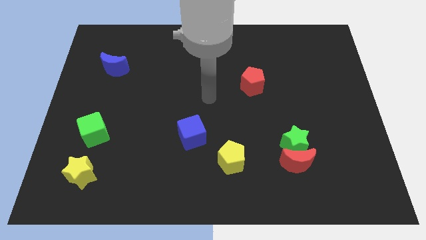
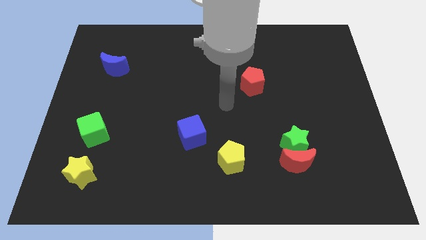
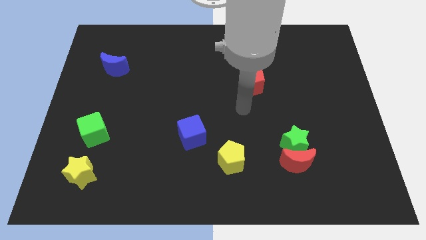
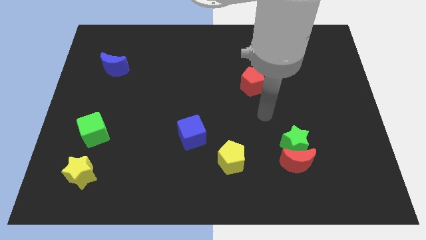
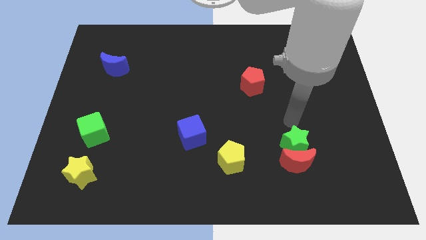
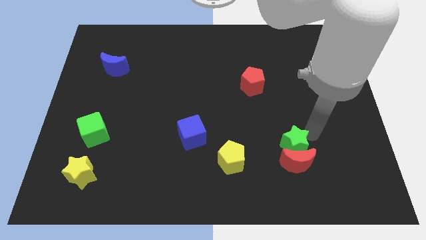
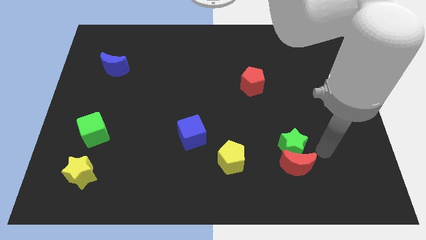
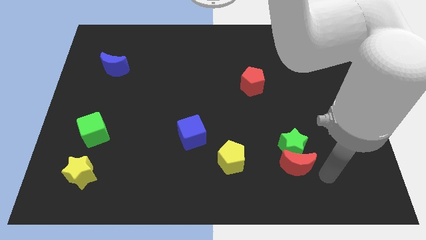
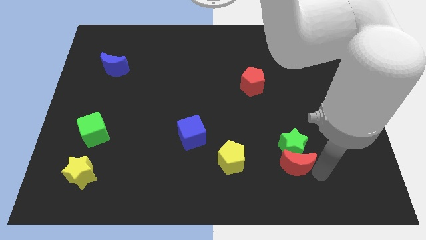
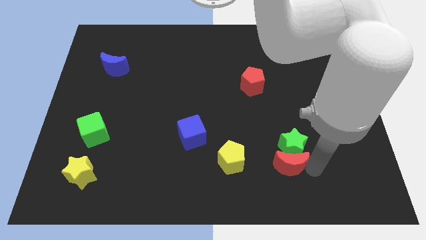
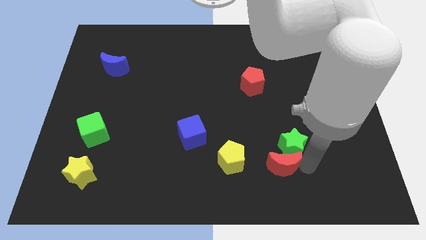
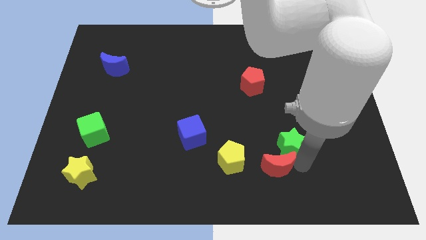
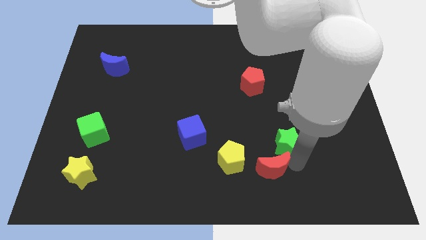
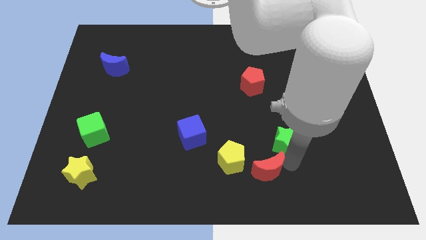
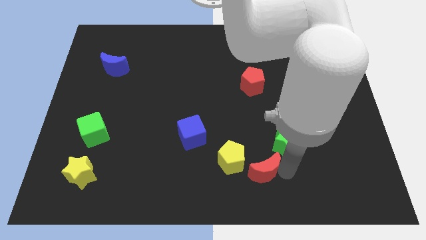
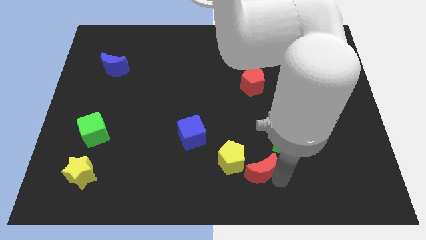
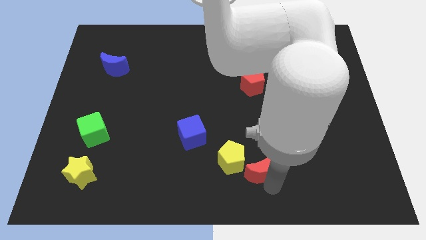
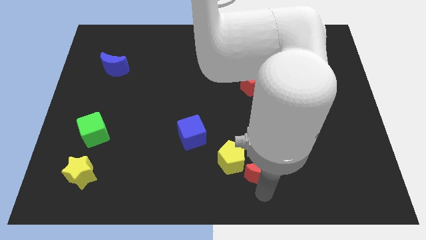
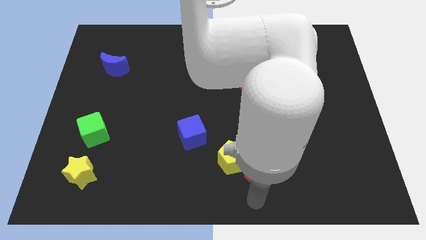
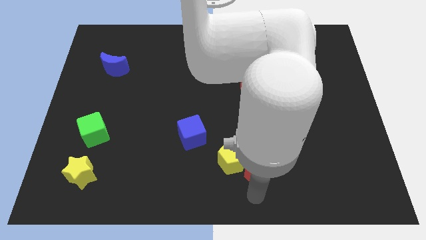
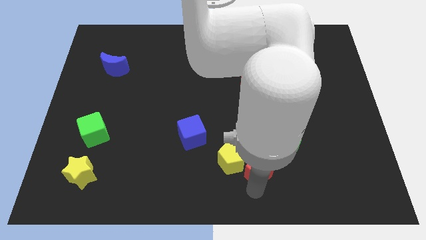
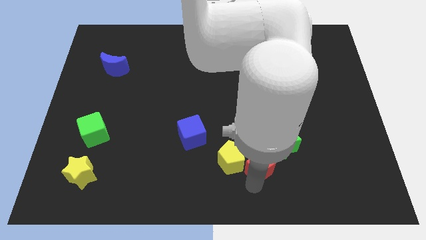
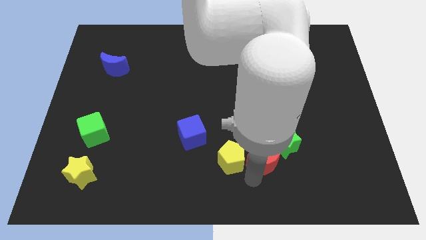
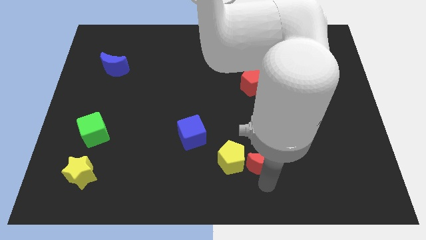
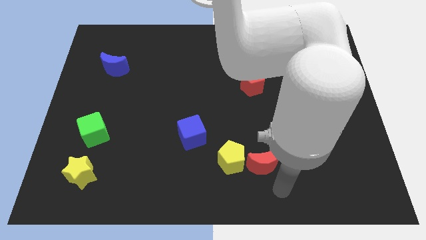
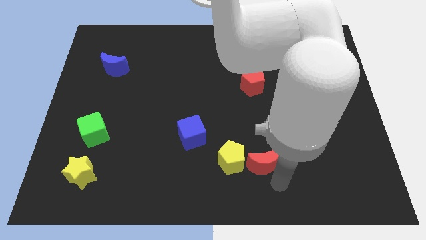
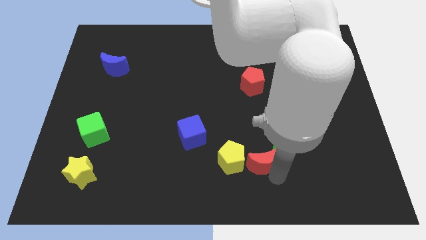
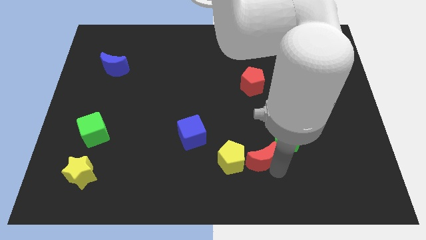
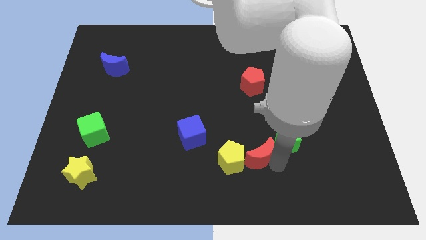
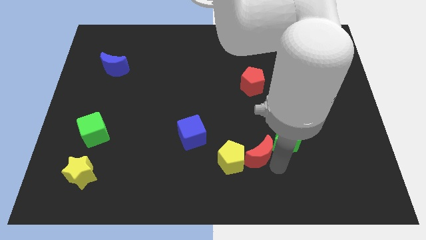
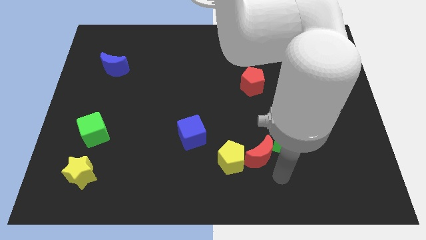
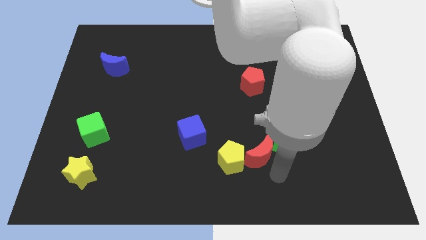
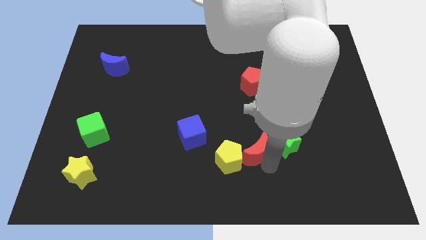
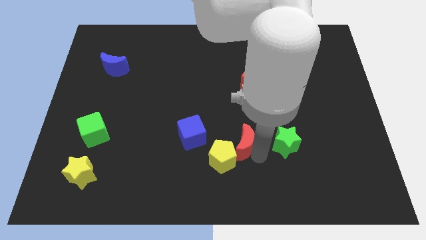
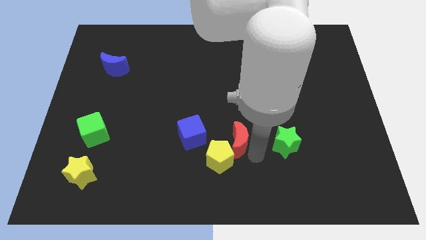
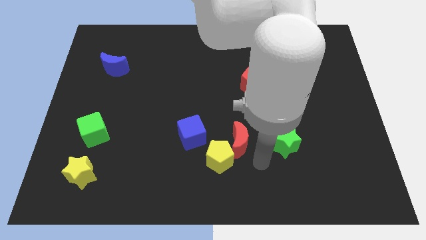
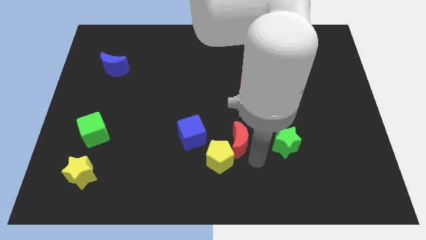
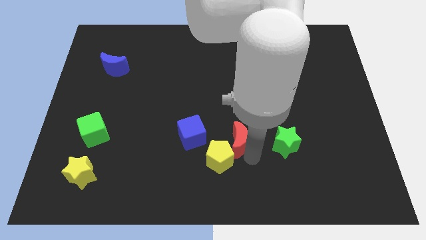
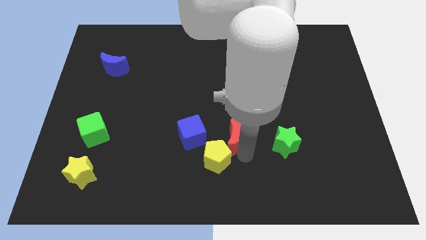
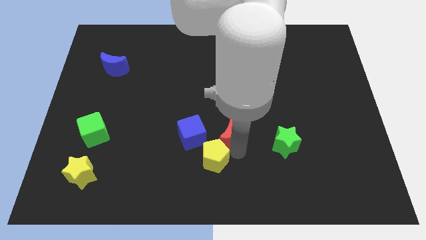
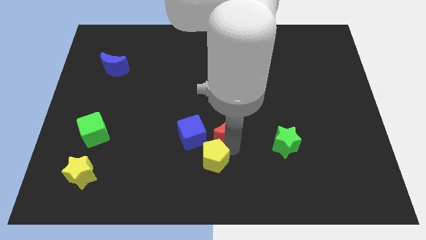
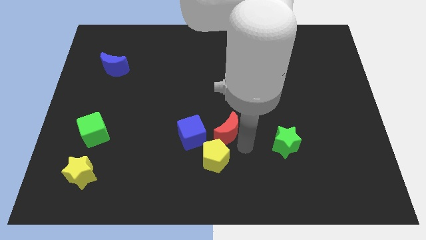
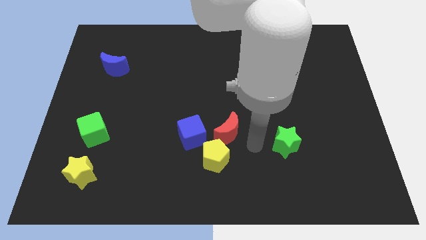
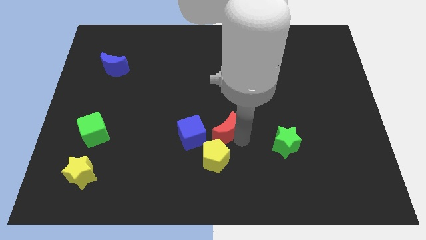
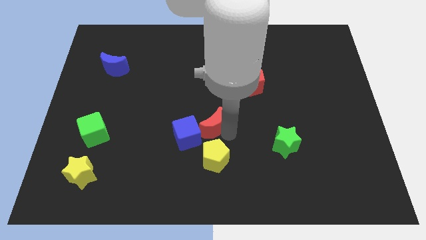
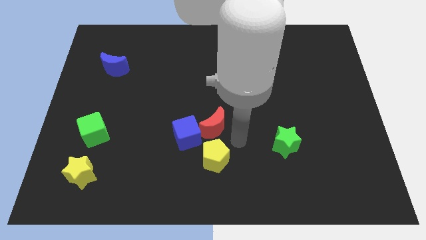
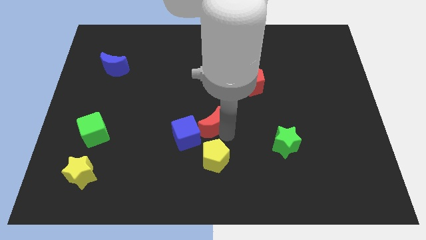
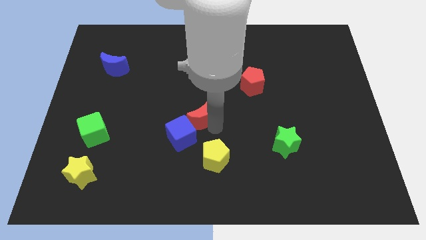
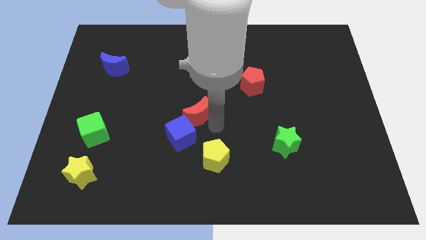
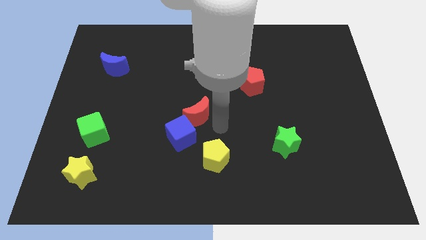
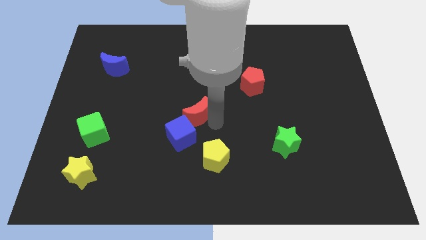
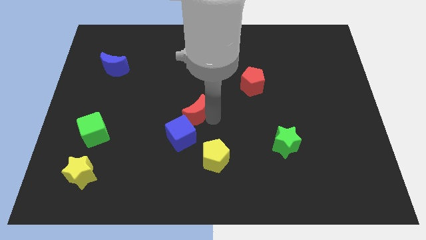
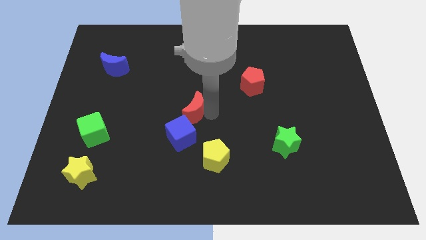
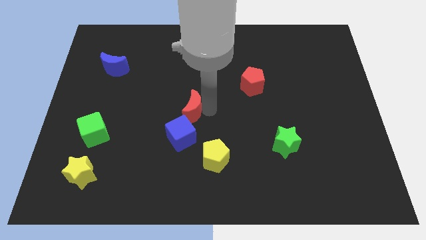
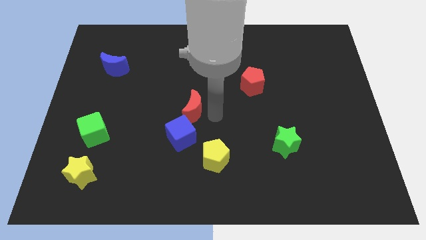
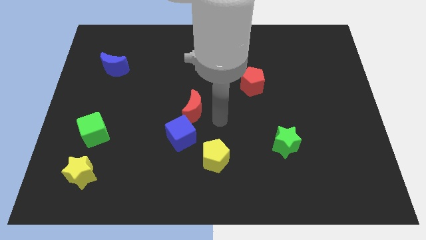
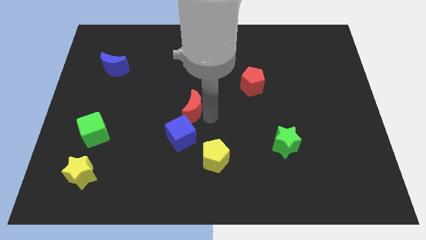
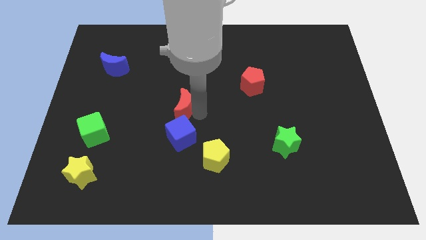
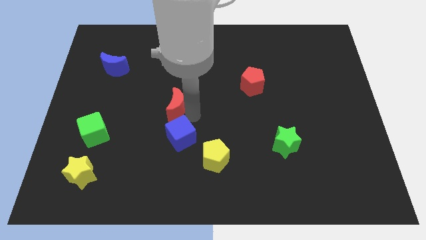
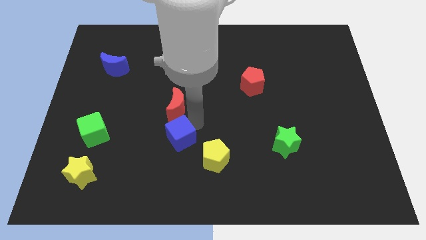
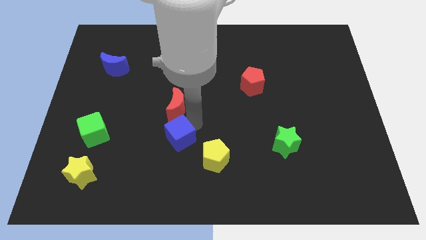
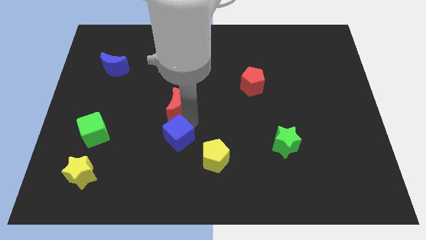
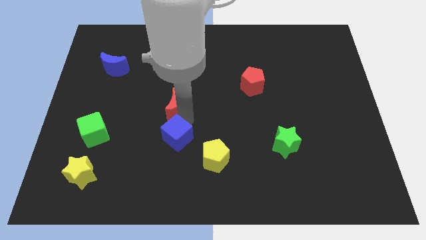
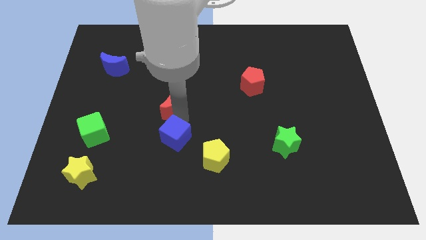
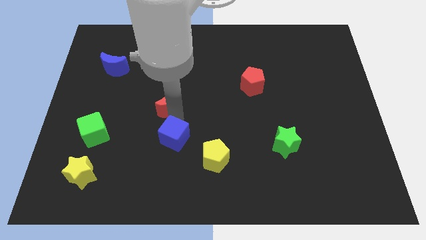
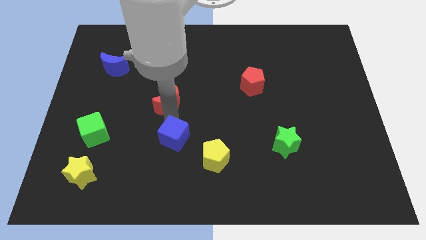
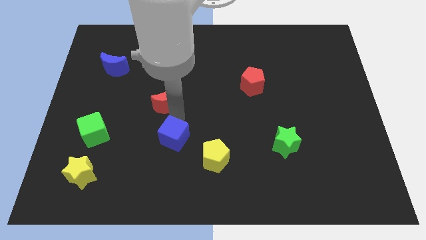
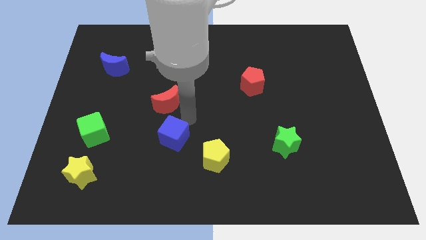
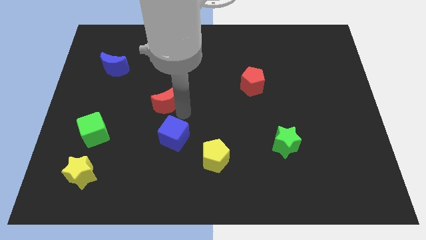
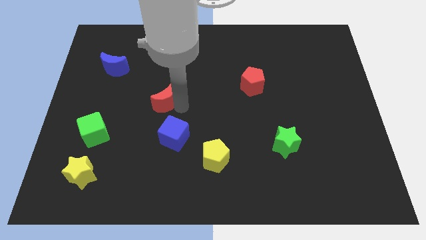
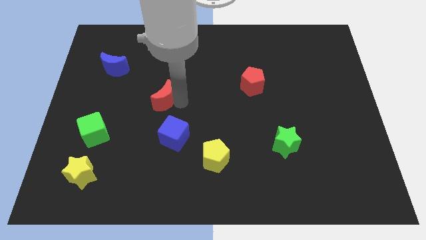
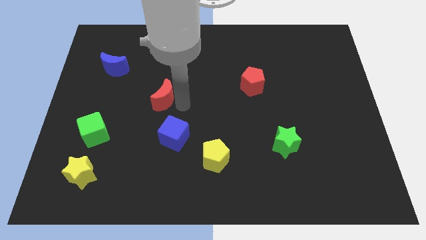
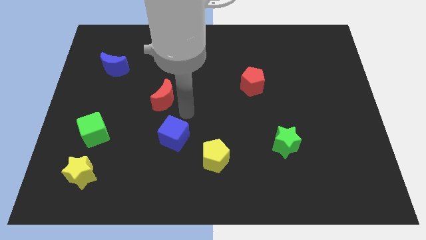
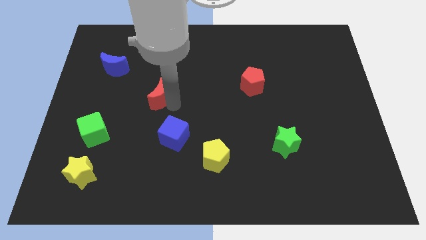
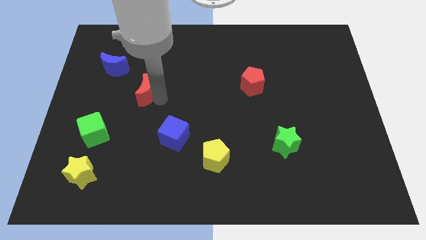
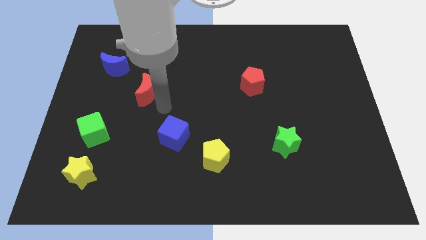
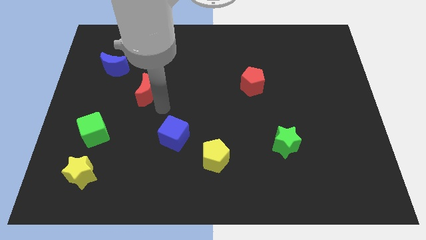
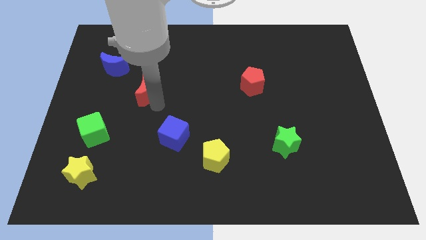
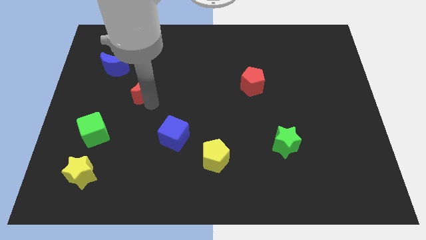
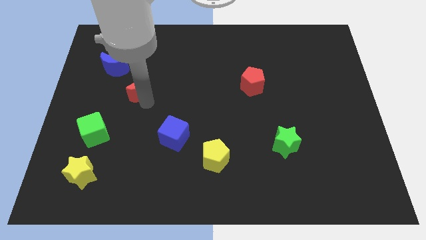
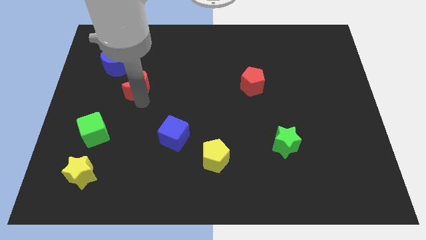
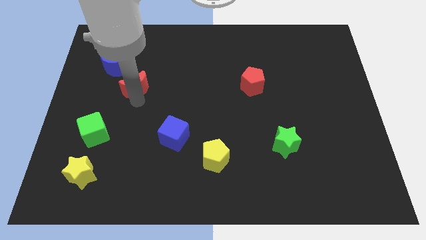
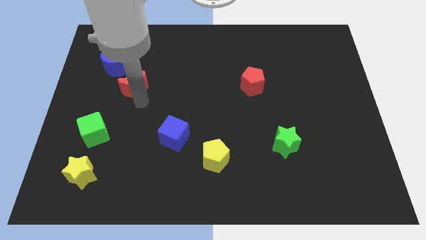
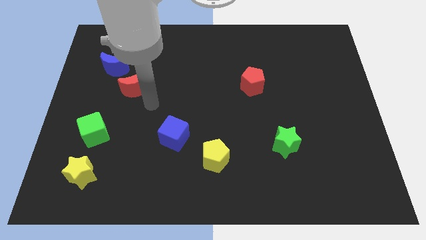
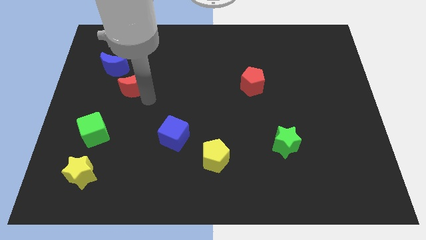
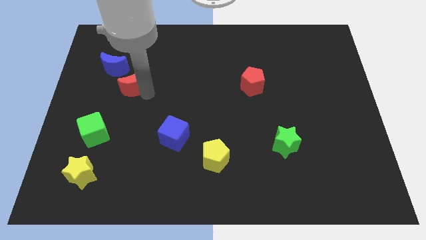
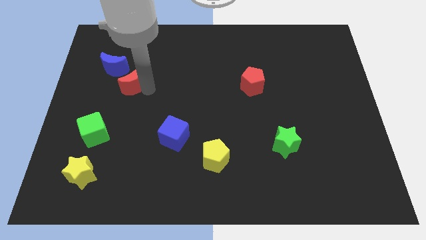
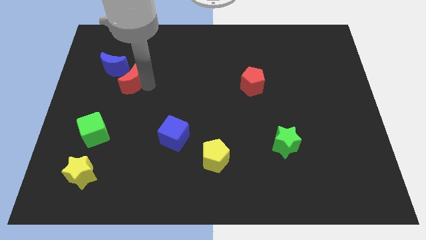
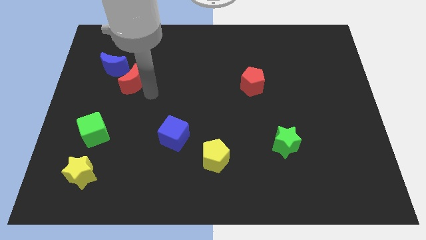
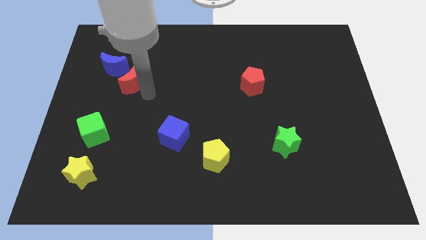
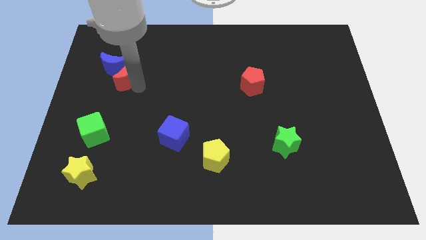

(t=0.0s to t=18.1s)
push the red moon next to the blue moon
